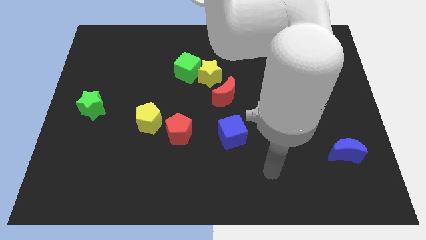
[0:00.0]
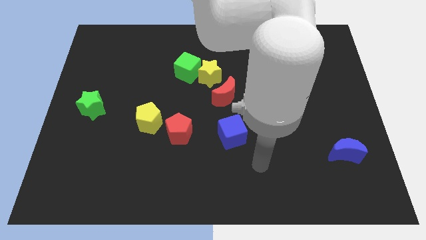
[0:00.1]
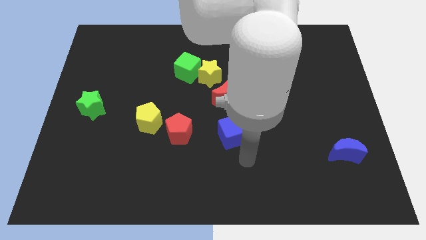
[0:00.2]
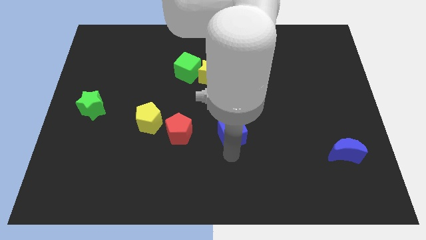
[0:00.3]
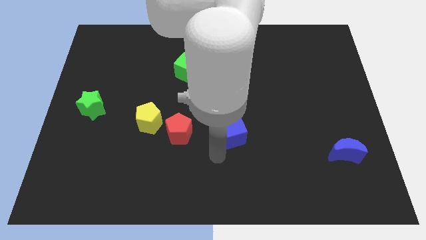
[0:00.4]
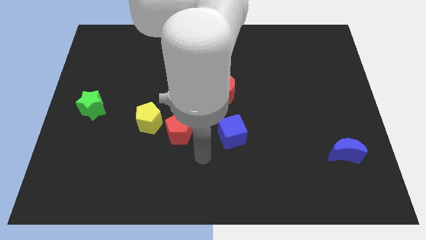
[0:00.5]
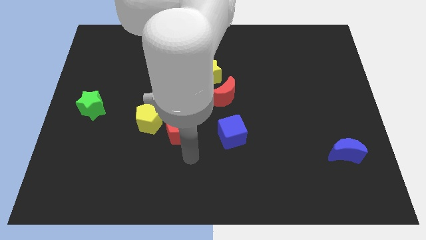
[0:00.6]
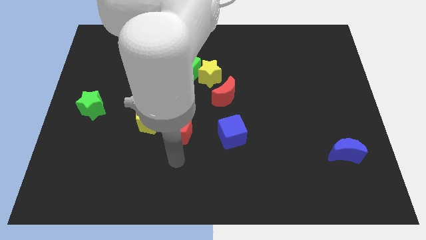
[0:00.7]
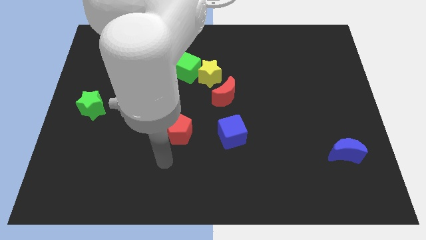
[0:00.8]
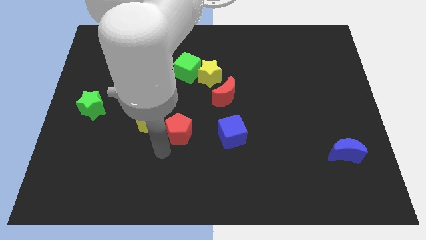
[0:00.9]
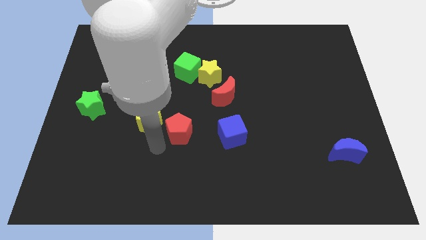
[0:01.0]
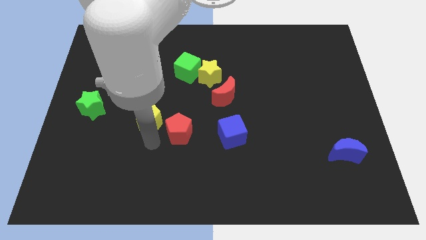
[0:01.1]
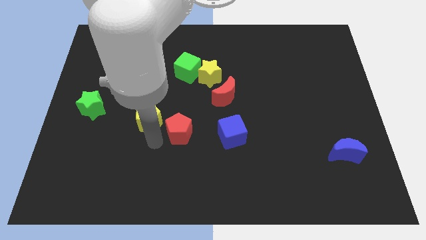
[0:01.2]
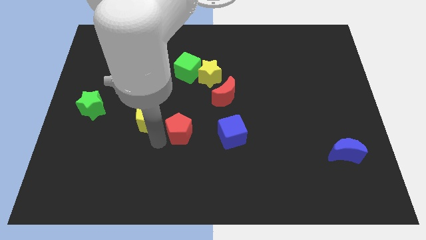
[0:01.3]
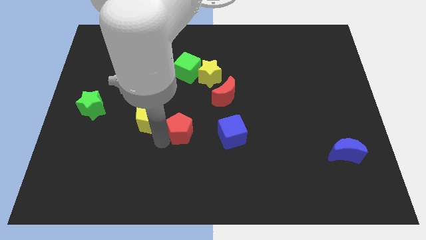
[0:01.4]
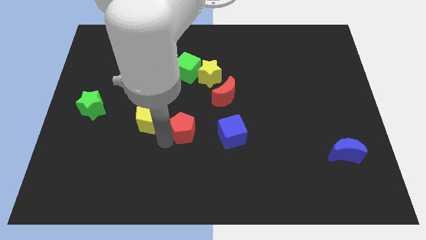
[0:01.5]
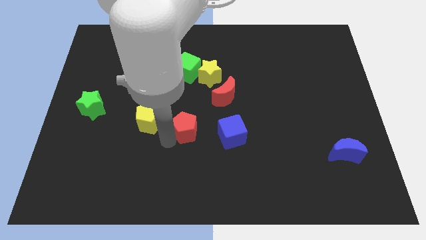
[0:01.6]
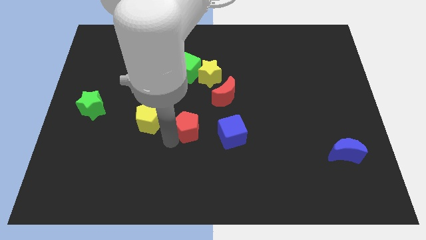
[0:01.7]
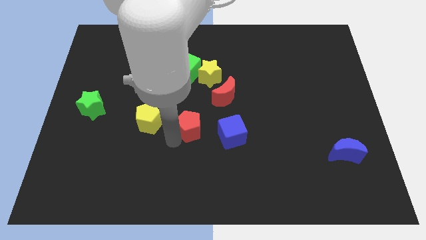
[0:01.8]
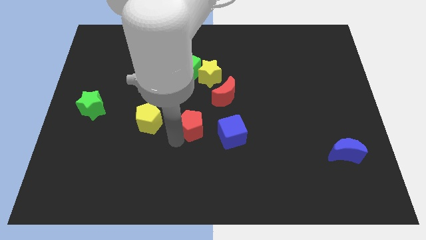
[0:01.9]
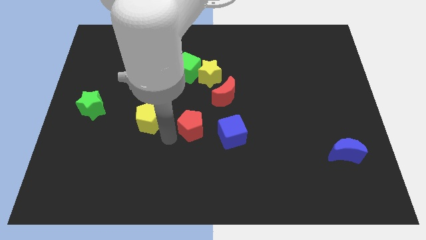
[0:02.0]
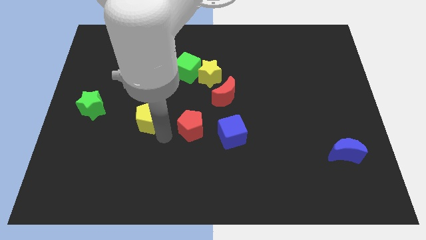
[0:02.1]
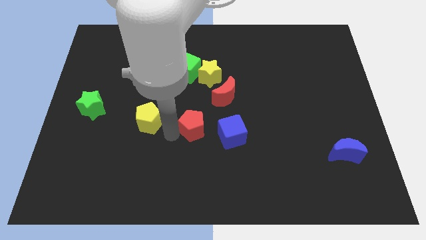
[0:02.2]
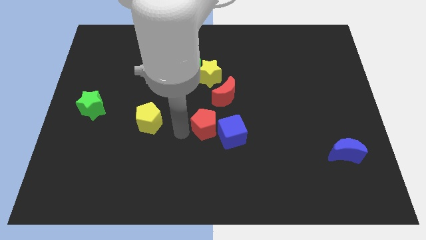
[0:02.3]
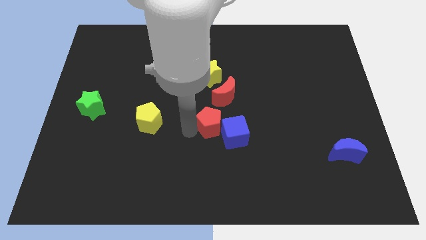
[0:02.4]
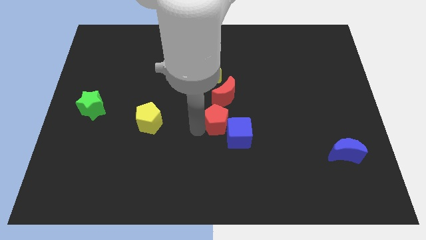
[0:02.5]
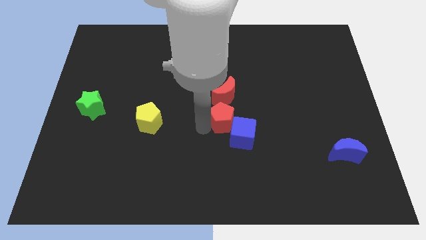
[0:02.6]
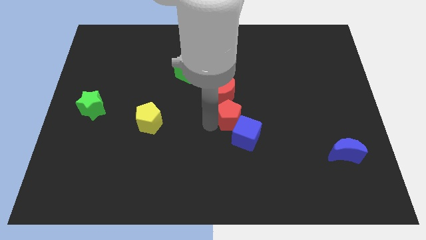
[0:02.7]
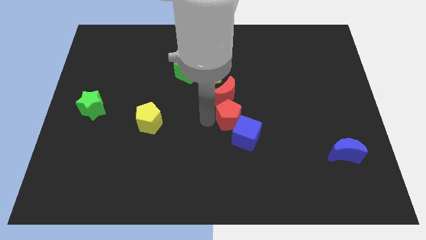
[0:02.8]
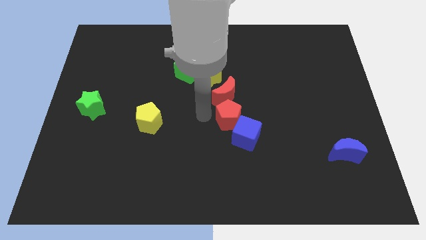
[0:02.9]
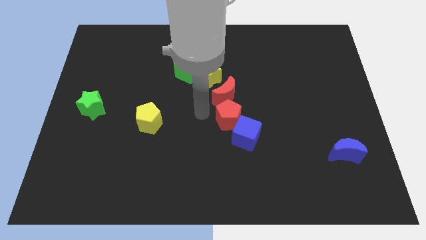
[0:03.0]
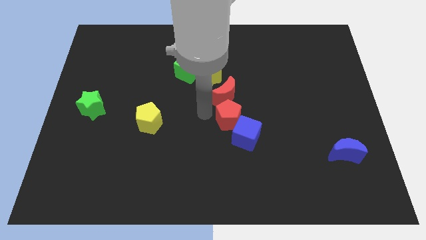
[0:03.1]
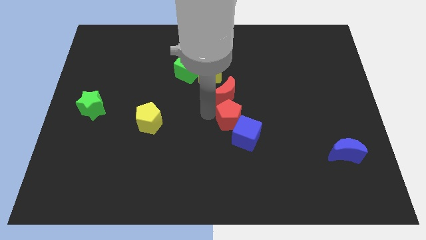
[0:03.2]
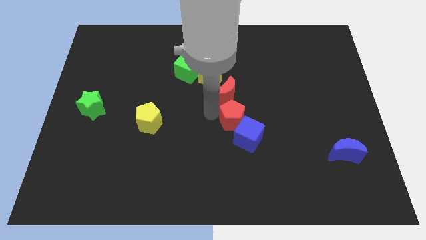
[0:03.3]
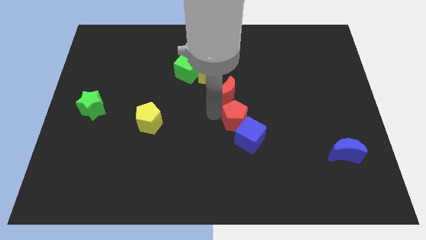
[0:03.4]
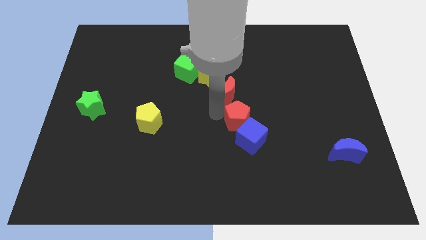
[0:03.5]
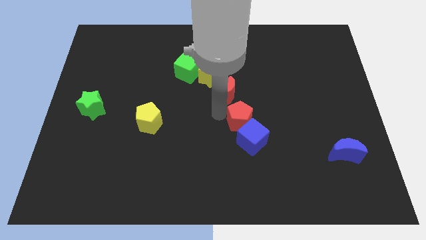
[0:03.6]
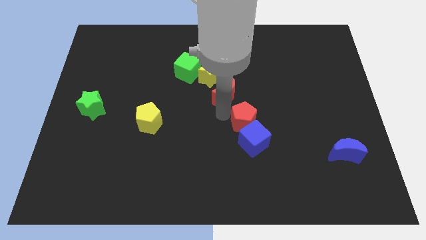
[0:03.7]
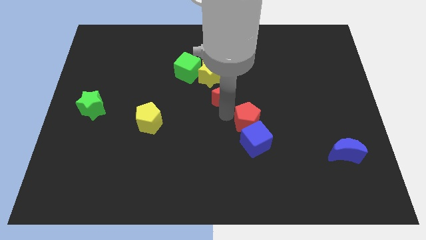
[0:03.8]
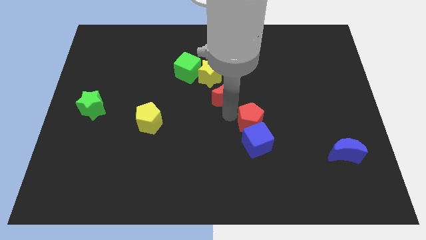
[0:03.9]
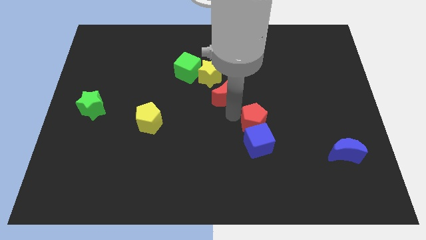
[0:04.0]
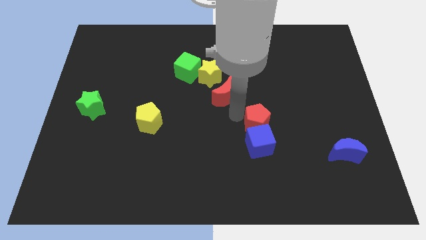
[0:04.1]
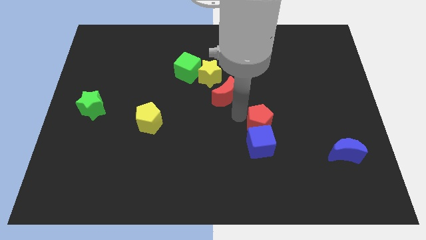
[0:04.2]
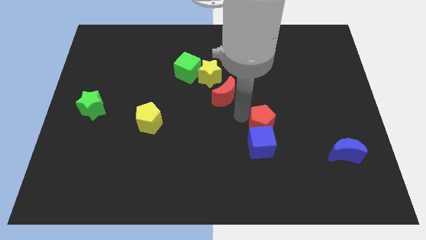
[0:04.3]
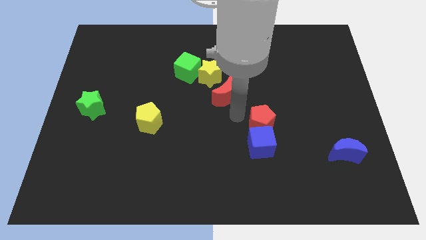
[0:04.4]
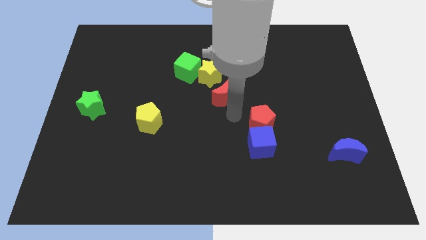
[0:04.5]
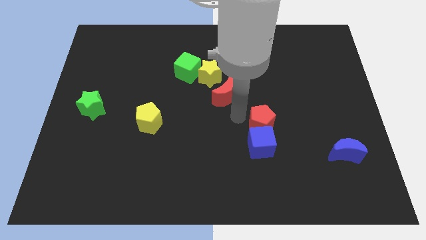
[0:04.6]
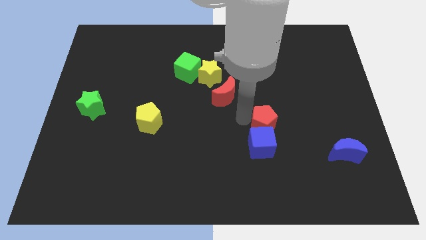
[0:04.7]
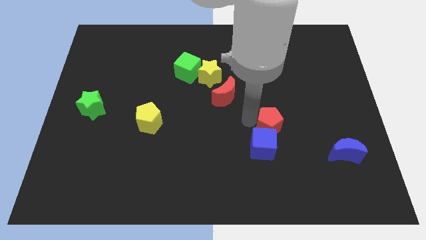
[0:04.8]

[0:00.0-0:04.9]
move the red pentagon right

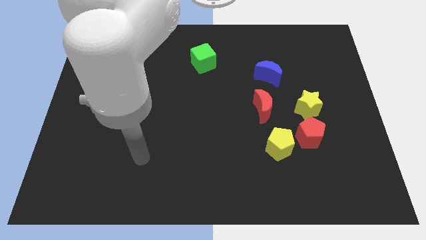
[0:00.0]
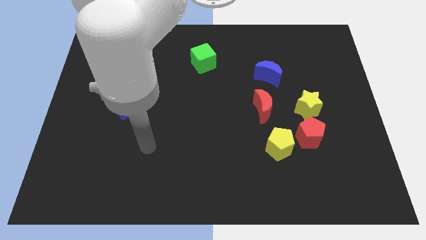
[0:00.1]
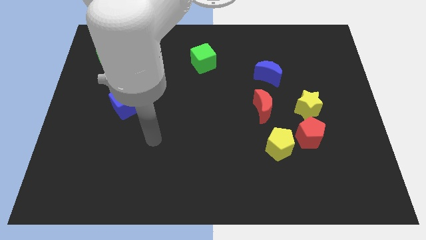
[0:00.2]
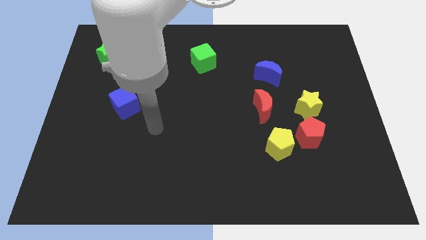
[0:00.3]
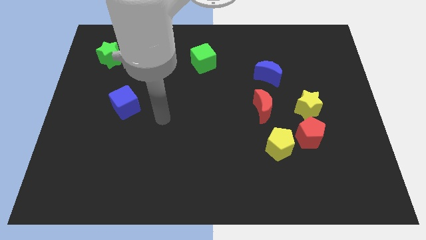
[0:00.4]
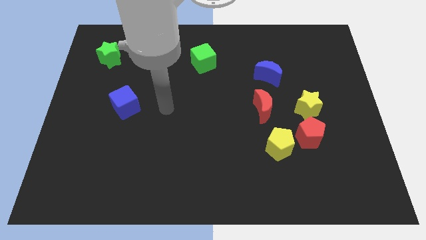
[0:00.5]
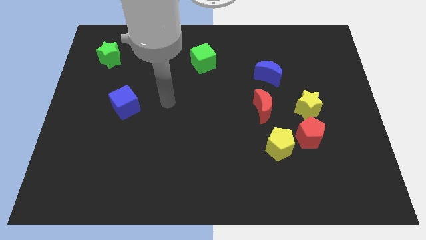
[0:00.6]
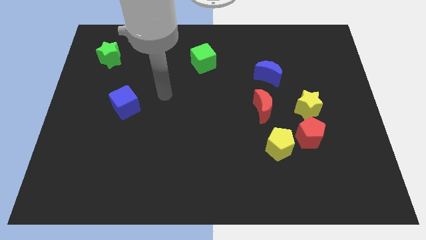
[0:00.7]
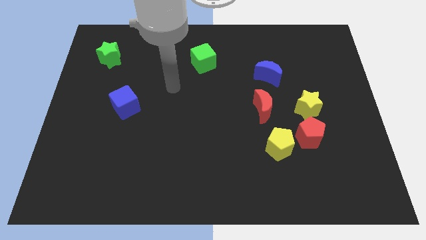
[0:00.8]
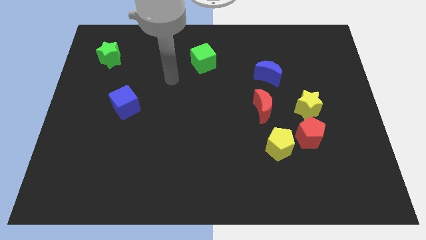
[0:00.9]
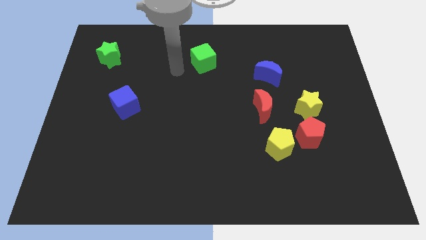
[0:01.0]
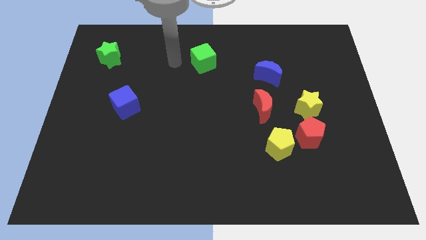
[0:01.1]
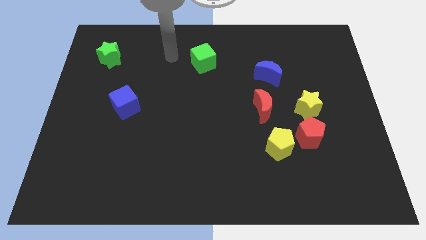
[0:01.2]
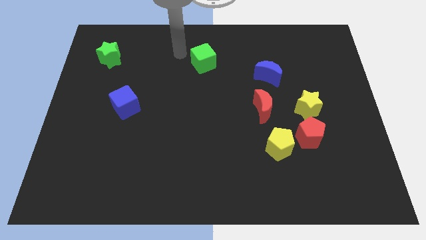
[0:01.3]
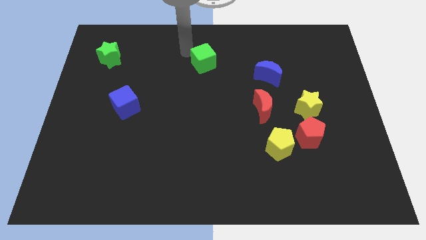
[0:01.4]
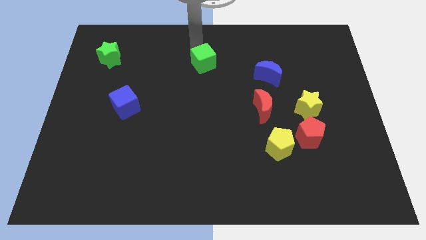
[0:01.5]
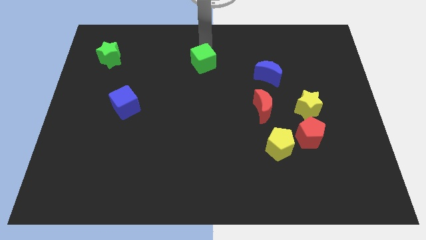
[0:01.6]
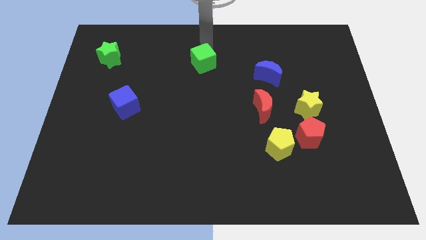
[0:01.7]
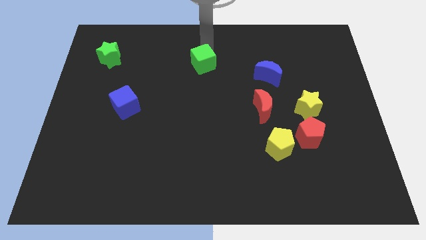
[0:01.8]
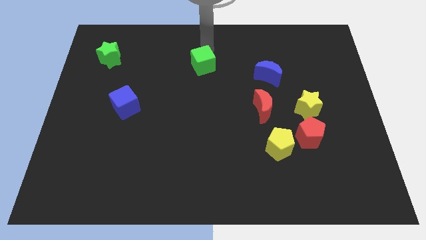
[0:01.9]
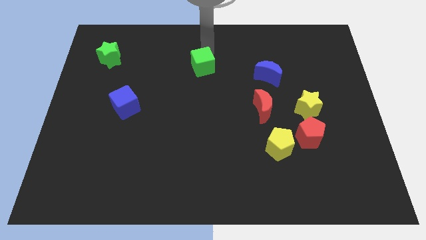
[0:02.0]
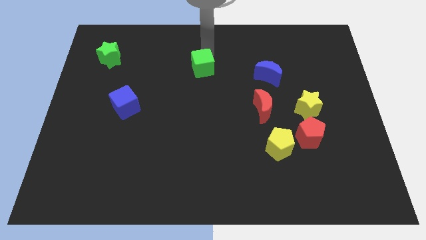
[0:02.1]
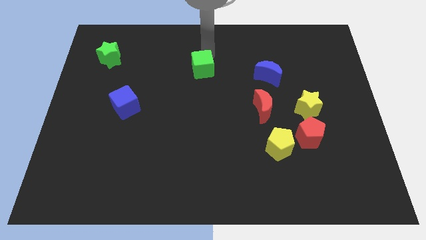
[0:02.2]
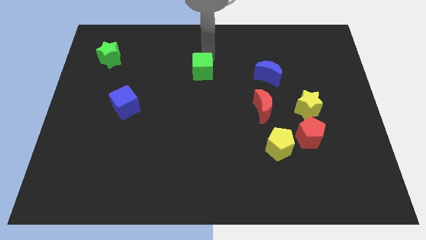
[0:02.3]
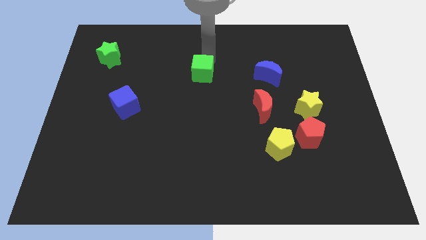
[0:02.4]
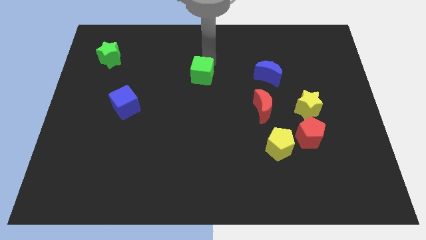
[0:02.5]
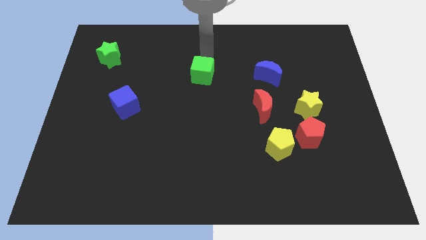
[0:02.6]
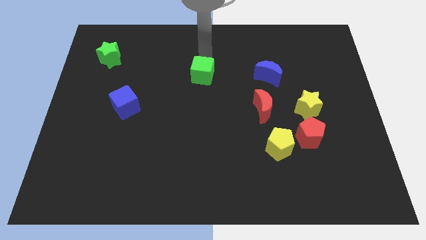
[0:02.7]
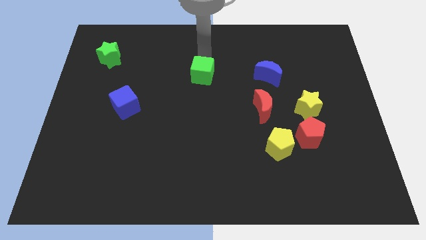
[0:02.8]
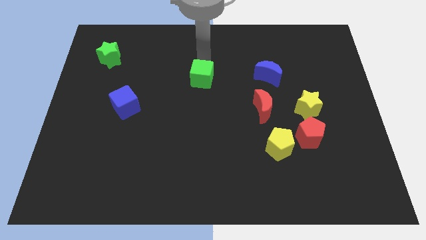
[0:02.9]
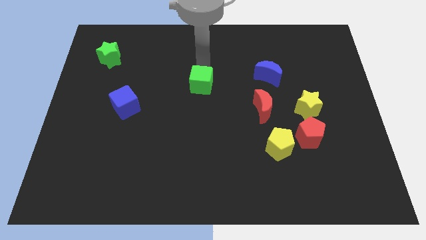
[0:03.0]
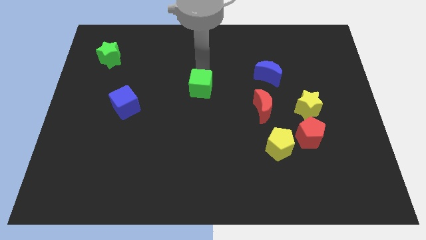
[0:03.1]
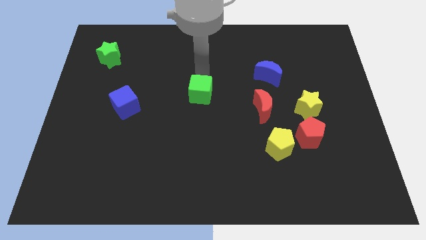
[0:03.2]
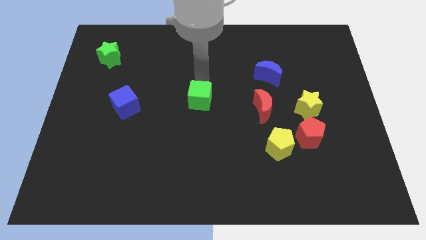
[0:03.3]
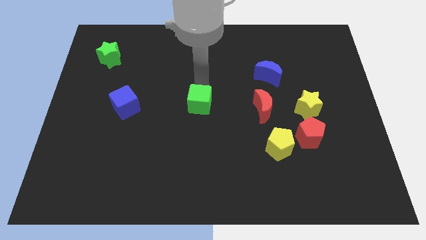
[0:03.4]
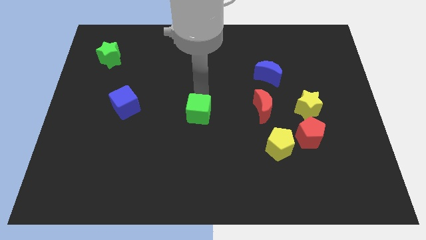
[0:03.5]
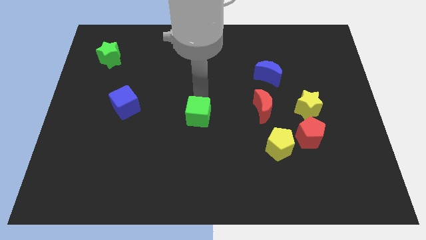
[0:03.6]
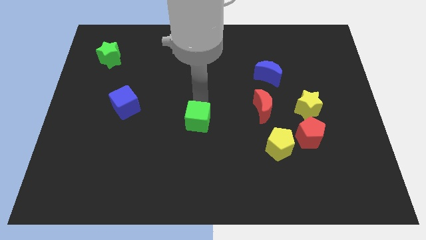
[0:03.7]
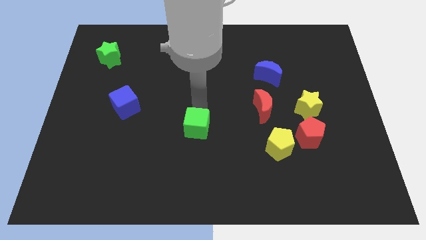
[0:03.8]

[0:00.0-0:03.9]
move the green cube downwards
